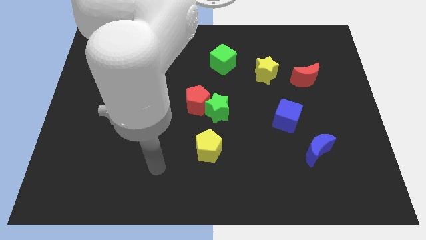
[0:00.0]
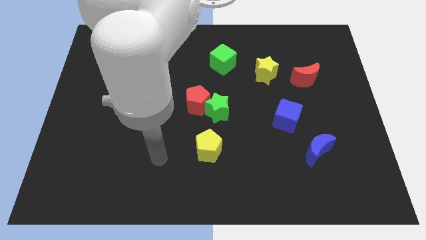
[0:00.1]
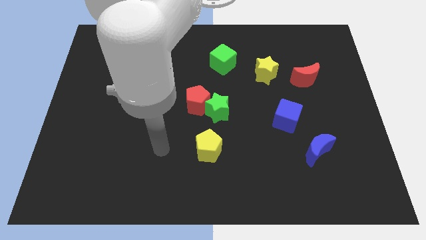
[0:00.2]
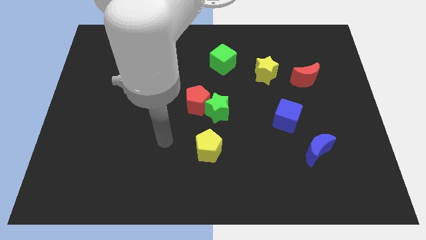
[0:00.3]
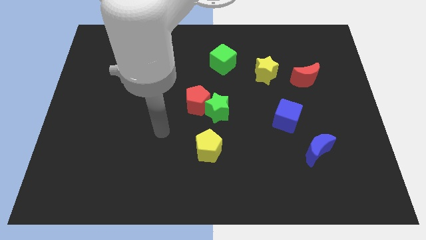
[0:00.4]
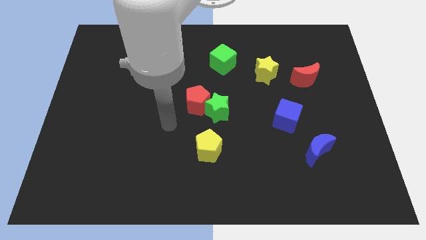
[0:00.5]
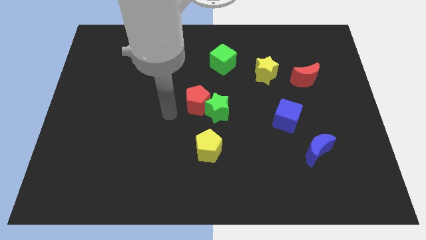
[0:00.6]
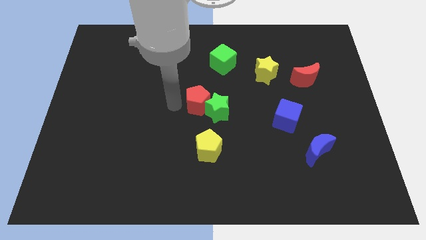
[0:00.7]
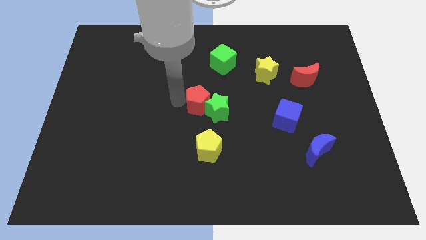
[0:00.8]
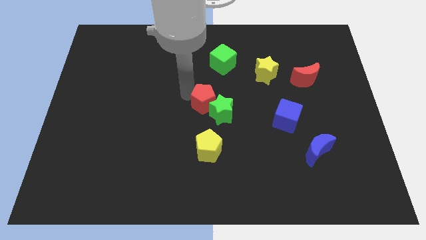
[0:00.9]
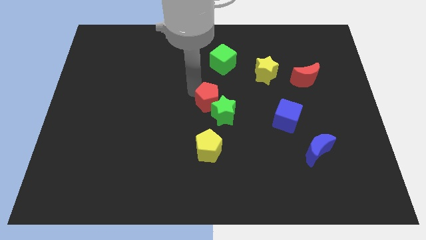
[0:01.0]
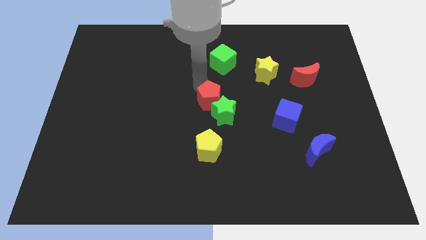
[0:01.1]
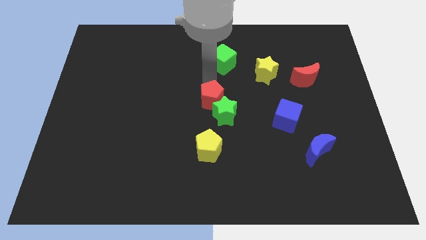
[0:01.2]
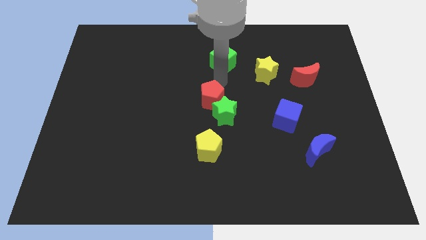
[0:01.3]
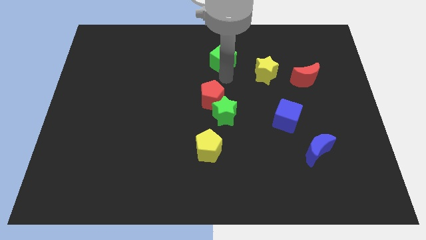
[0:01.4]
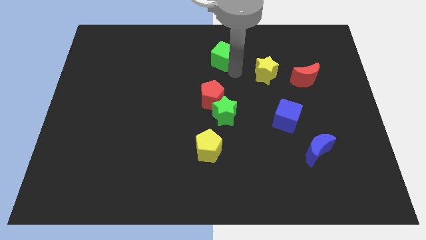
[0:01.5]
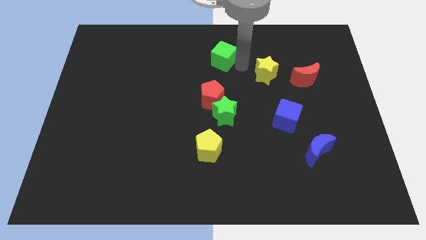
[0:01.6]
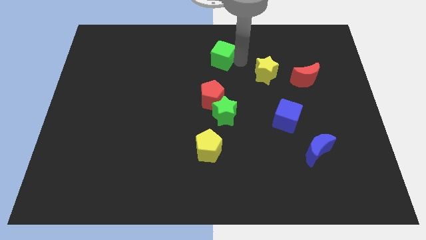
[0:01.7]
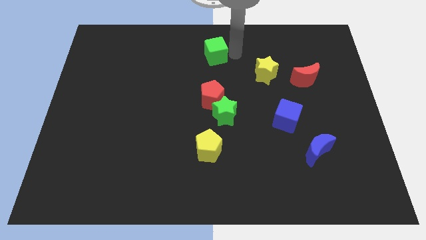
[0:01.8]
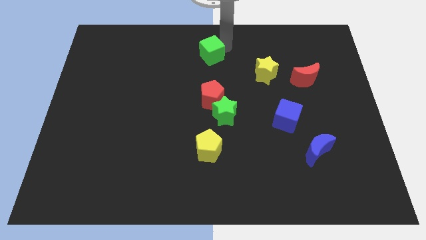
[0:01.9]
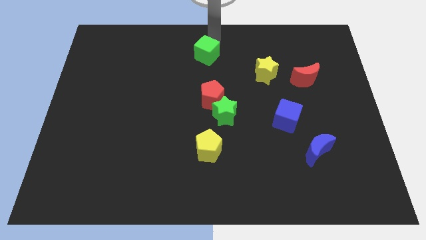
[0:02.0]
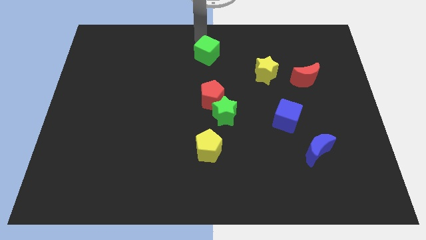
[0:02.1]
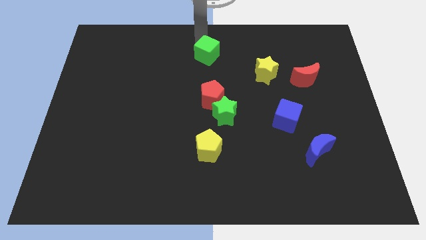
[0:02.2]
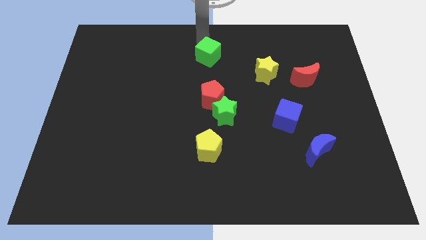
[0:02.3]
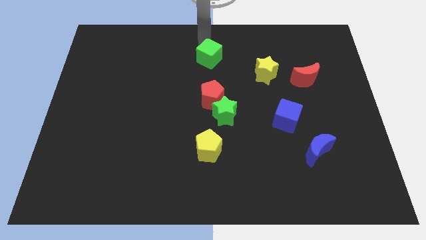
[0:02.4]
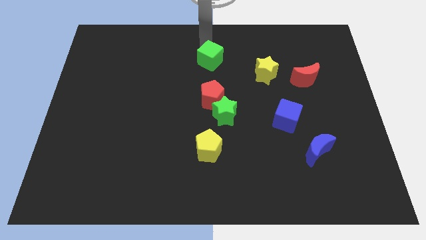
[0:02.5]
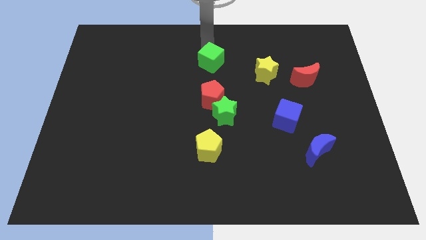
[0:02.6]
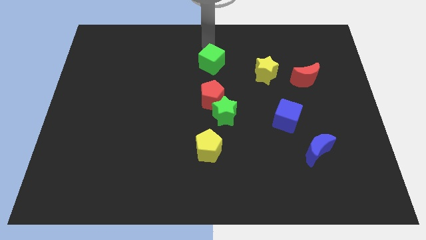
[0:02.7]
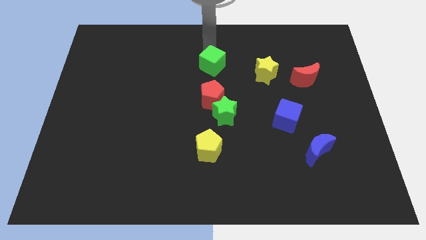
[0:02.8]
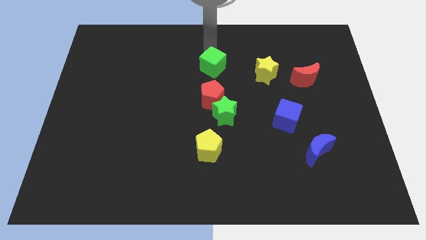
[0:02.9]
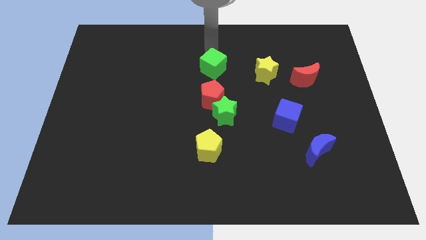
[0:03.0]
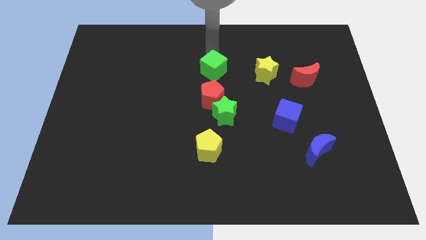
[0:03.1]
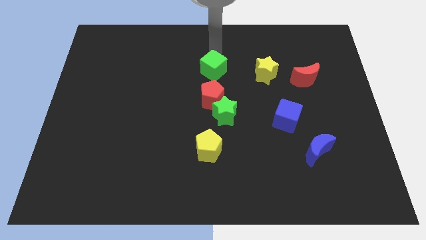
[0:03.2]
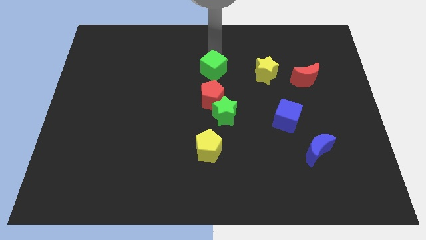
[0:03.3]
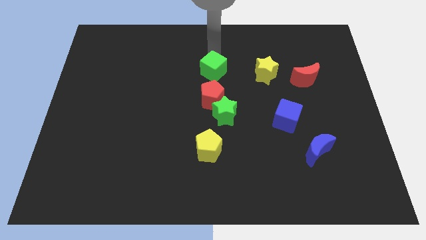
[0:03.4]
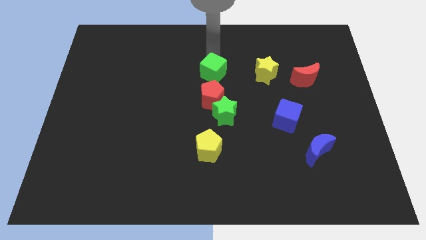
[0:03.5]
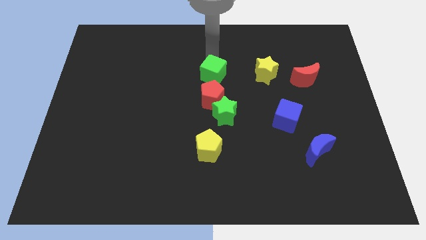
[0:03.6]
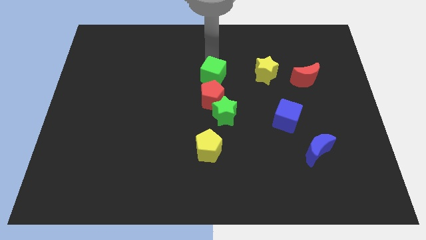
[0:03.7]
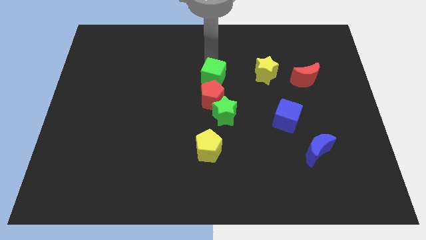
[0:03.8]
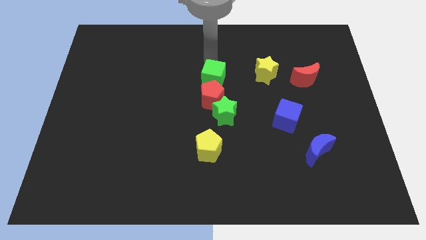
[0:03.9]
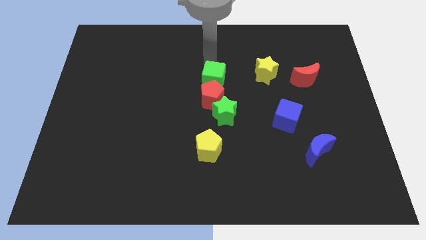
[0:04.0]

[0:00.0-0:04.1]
slide the green cube close to the red pentagon

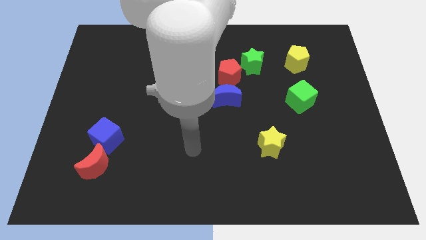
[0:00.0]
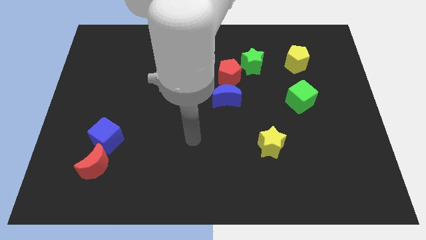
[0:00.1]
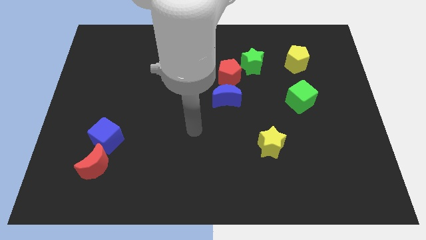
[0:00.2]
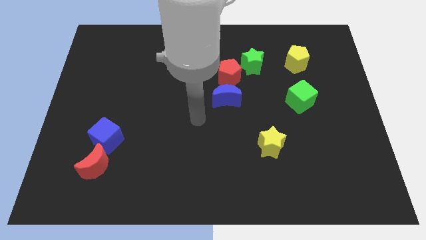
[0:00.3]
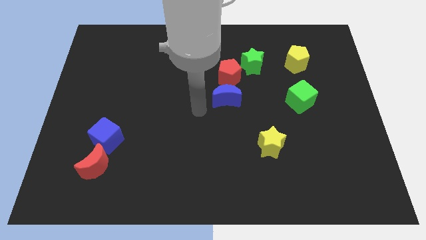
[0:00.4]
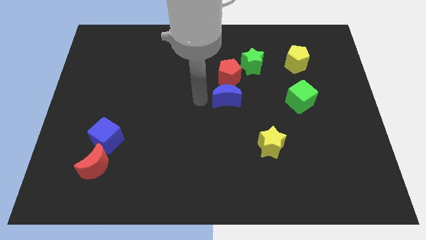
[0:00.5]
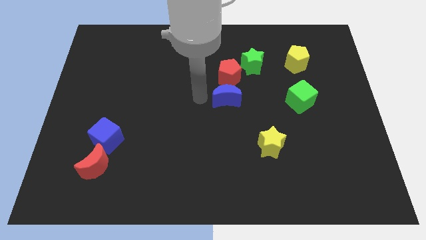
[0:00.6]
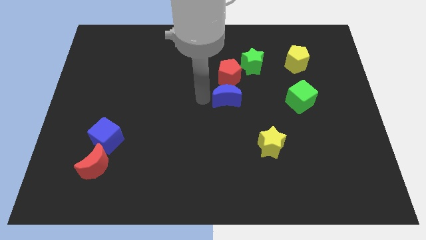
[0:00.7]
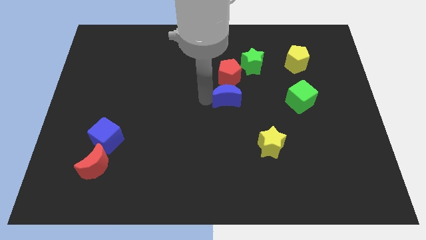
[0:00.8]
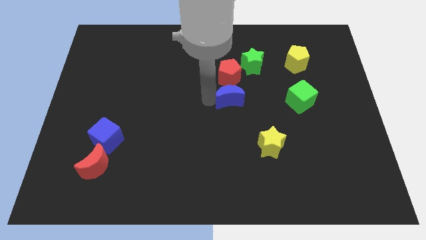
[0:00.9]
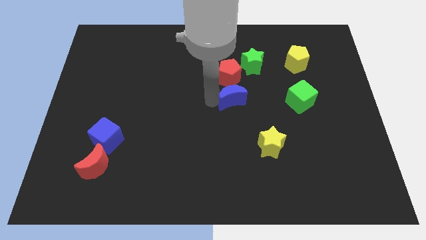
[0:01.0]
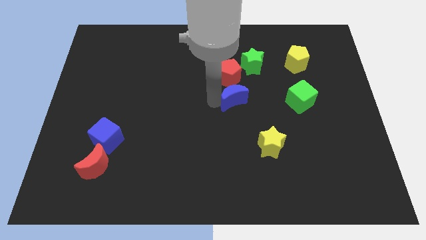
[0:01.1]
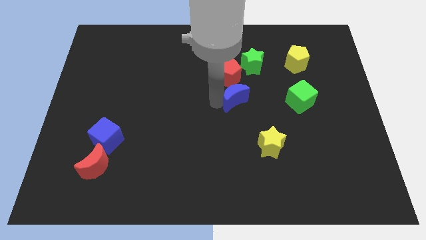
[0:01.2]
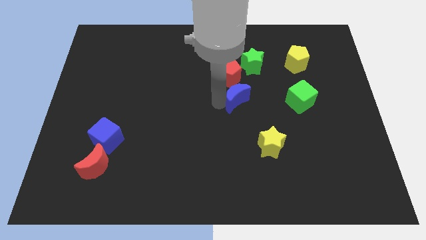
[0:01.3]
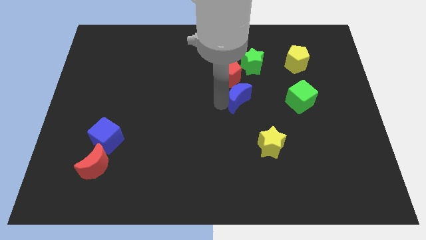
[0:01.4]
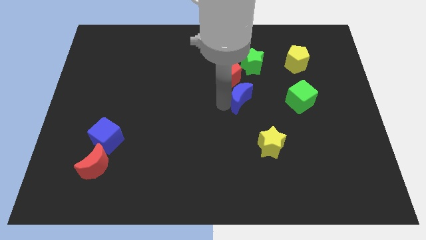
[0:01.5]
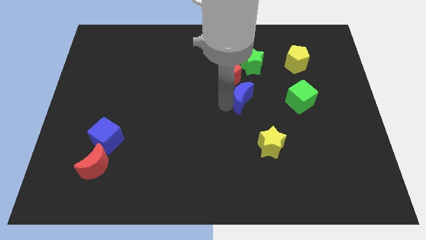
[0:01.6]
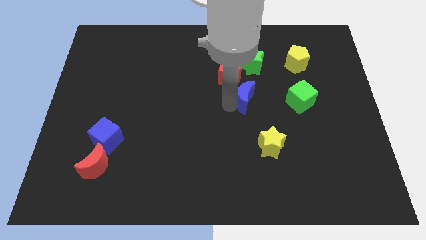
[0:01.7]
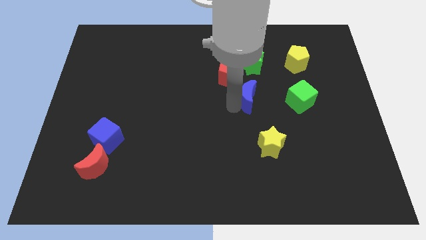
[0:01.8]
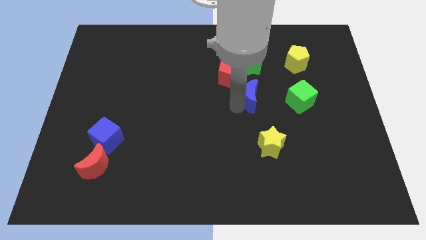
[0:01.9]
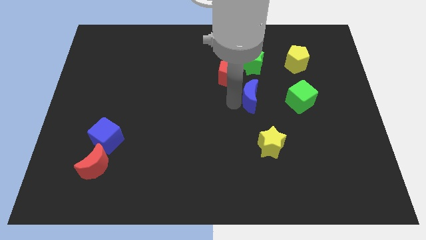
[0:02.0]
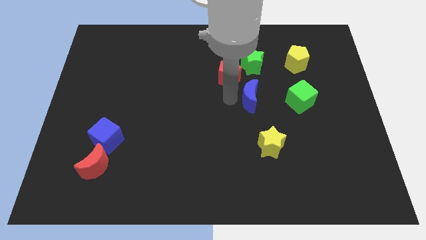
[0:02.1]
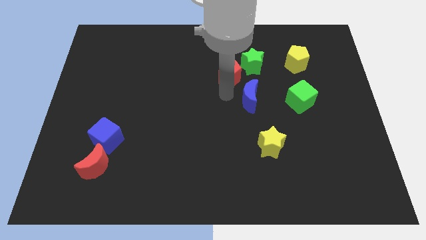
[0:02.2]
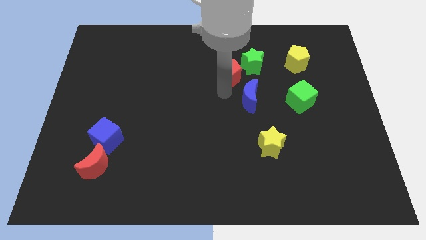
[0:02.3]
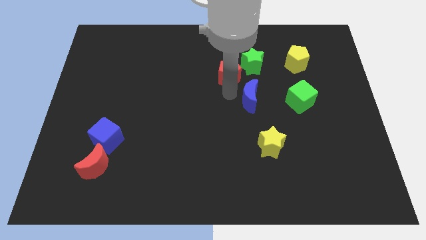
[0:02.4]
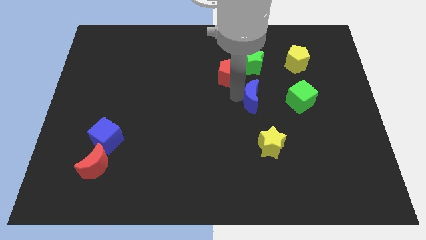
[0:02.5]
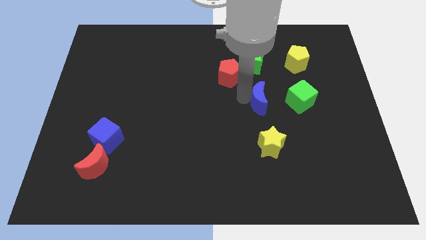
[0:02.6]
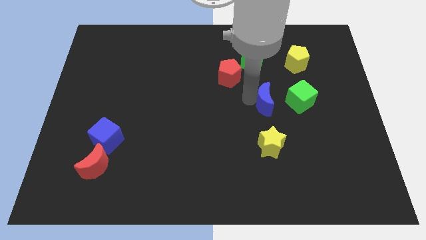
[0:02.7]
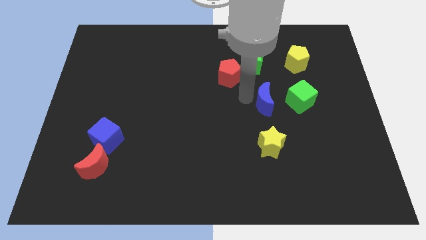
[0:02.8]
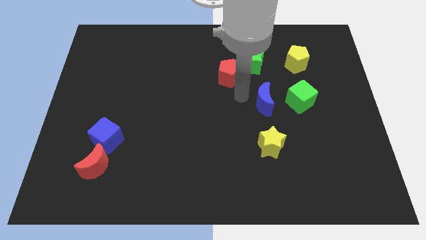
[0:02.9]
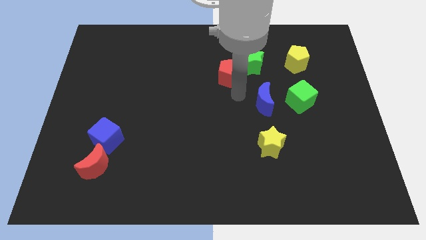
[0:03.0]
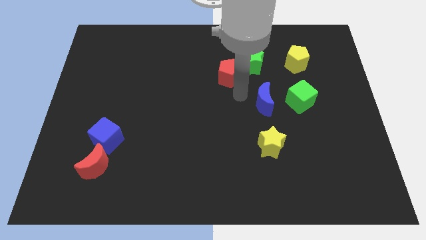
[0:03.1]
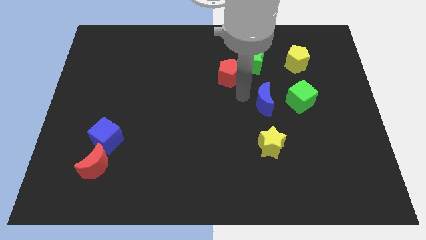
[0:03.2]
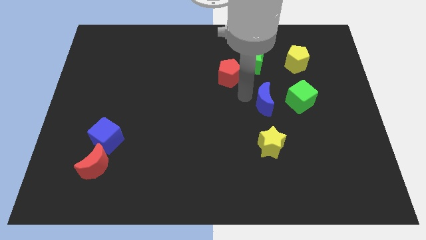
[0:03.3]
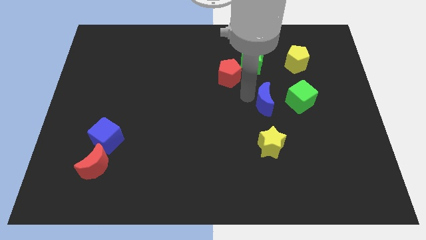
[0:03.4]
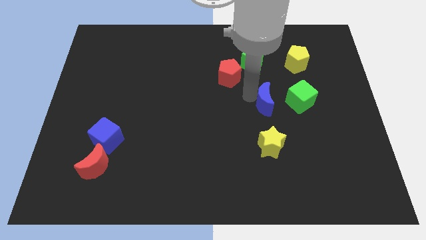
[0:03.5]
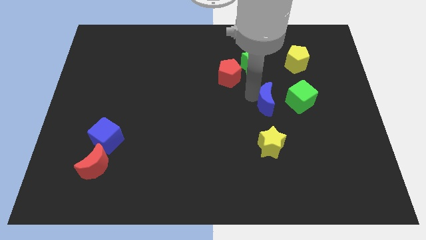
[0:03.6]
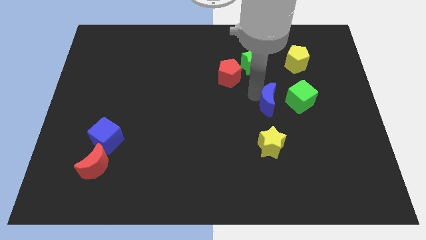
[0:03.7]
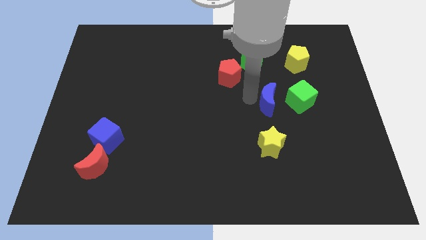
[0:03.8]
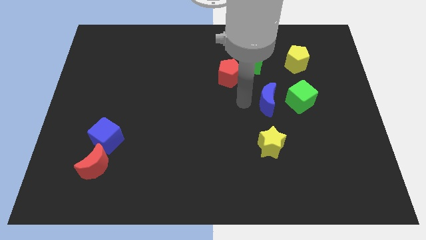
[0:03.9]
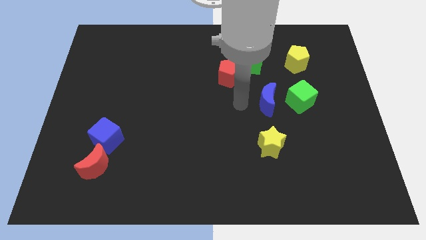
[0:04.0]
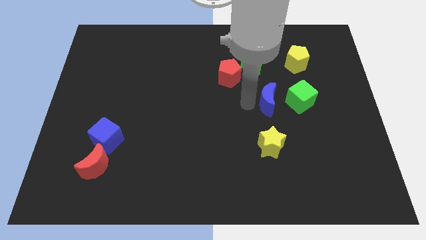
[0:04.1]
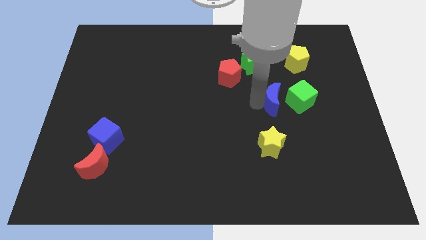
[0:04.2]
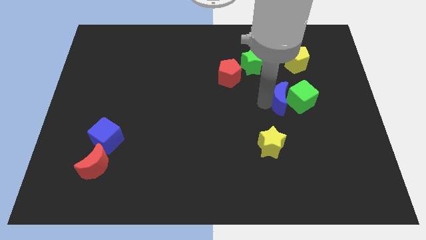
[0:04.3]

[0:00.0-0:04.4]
move the blue moon towards the green cube
